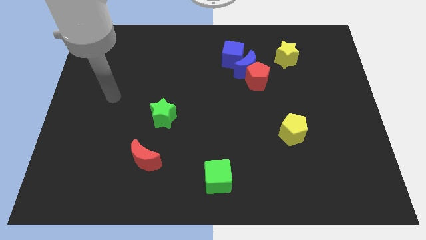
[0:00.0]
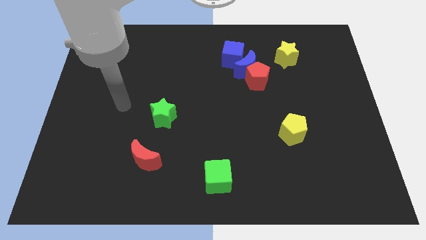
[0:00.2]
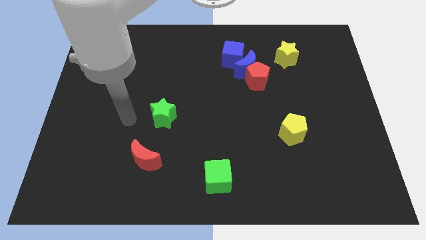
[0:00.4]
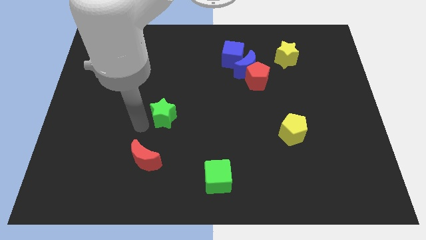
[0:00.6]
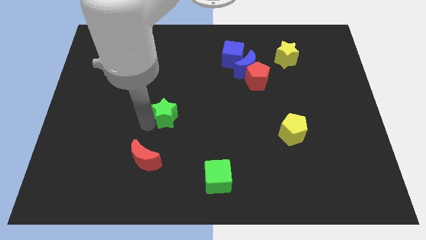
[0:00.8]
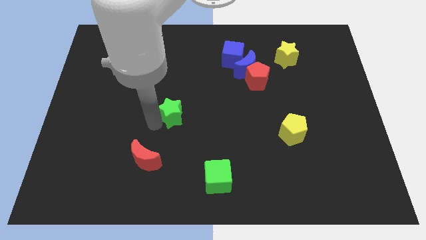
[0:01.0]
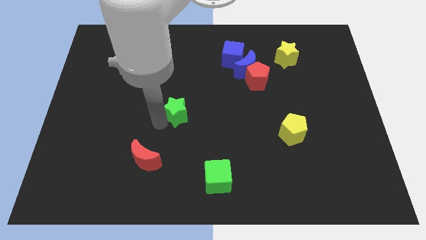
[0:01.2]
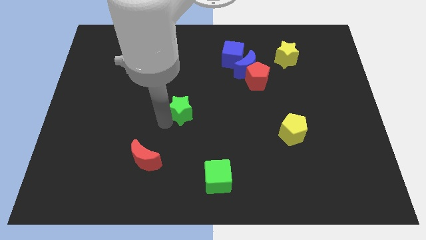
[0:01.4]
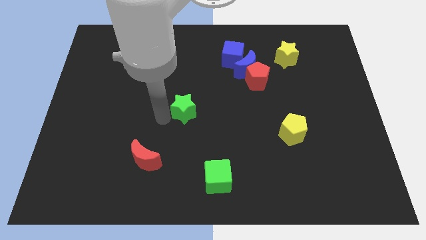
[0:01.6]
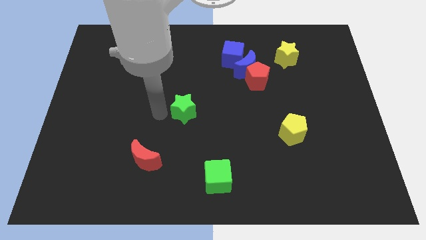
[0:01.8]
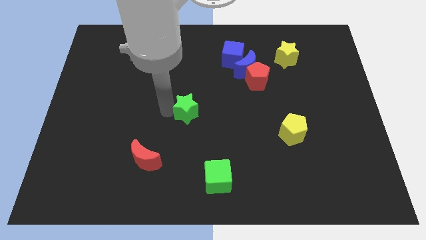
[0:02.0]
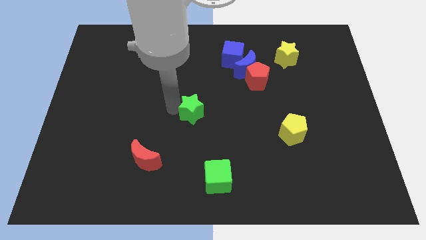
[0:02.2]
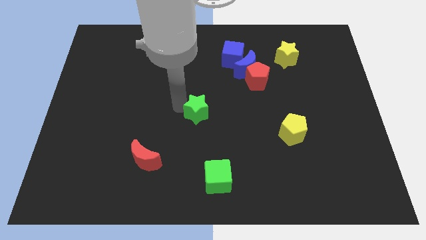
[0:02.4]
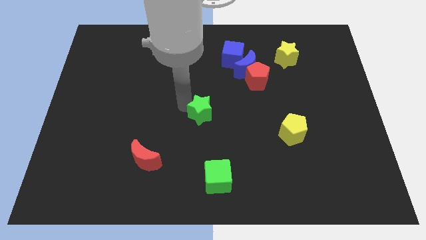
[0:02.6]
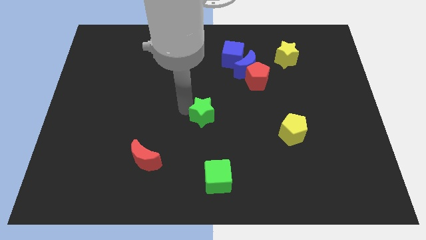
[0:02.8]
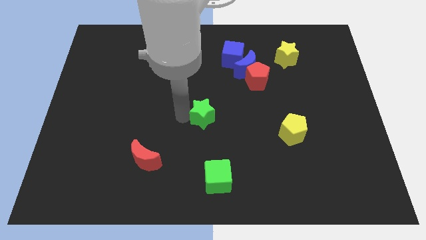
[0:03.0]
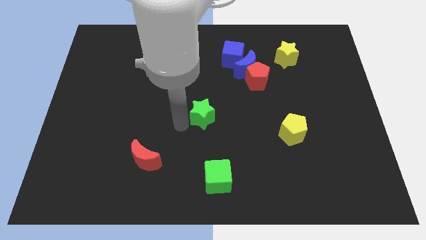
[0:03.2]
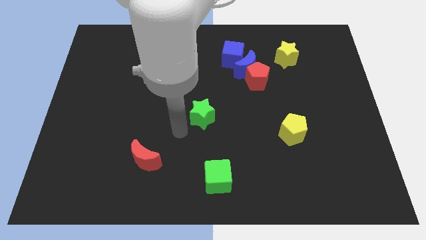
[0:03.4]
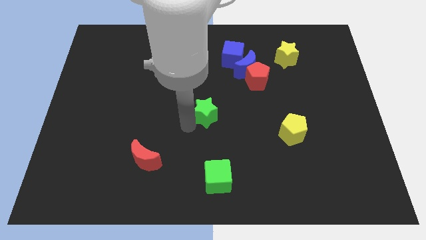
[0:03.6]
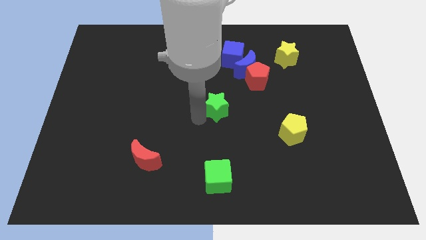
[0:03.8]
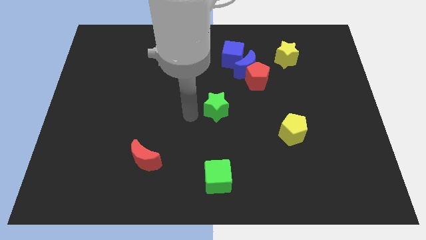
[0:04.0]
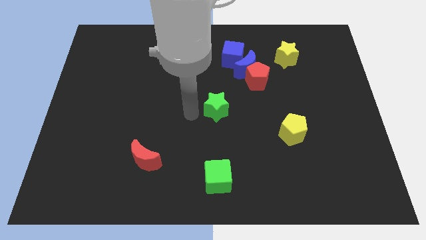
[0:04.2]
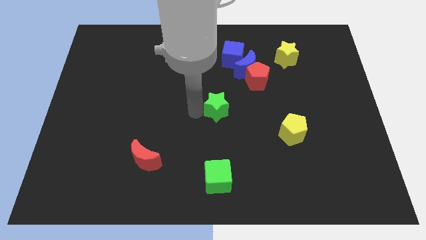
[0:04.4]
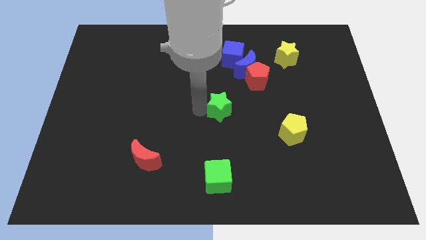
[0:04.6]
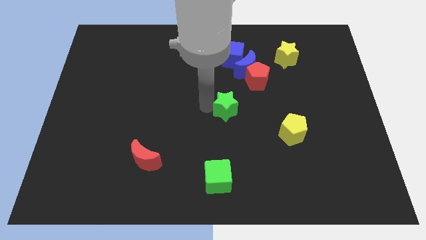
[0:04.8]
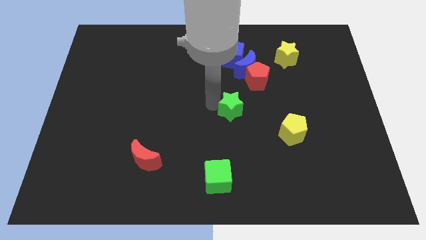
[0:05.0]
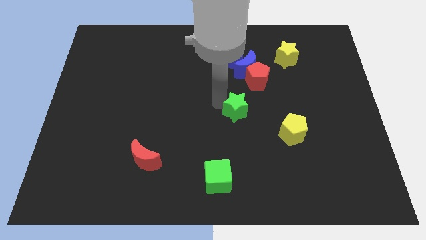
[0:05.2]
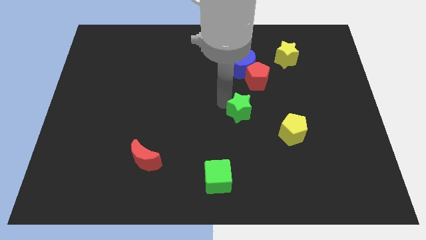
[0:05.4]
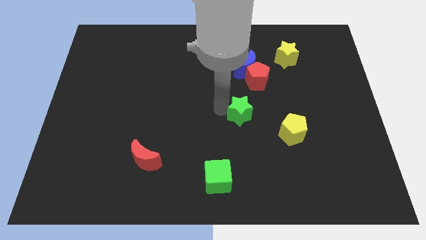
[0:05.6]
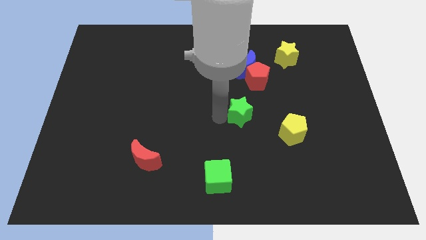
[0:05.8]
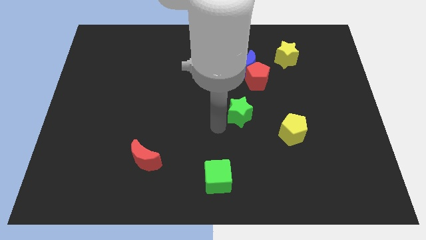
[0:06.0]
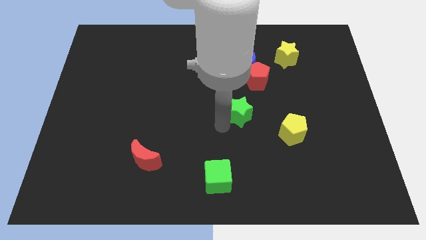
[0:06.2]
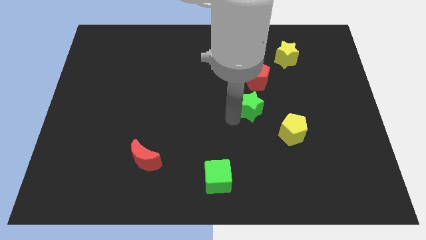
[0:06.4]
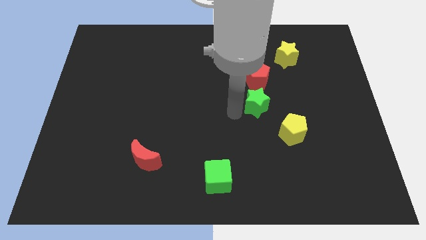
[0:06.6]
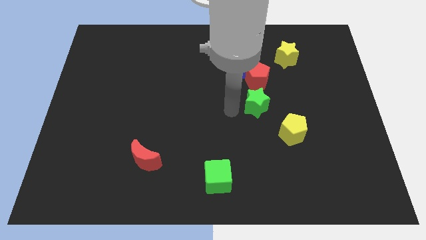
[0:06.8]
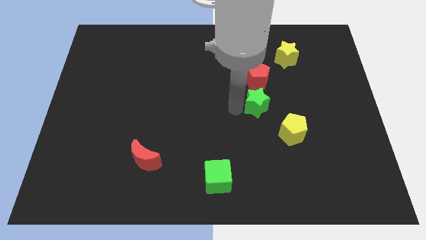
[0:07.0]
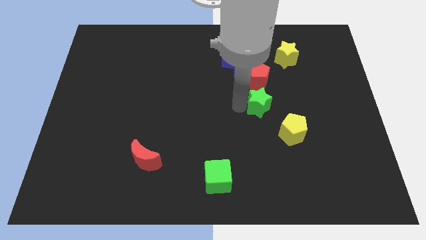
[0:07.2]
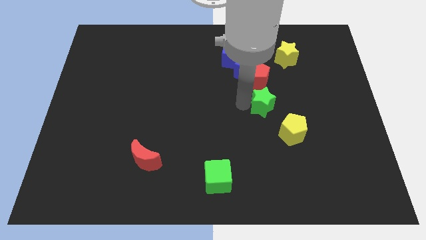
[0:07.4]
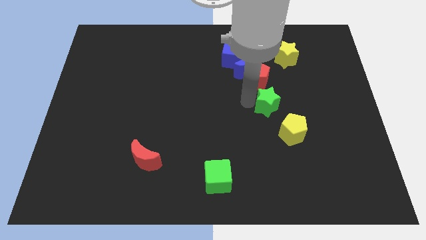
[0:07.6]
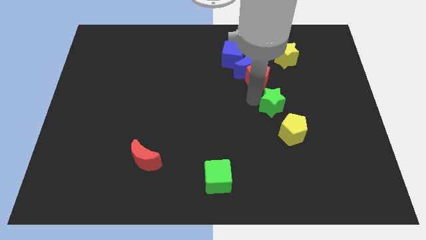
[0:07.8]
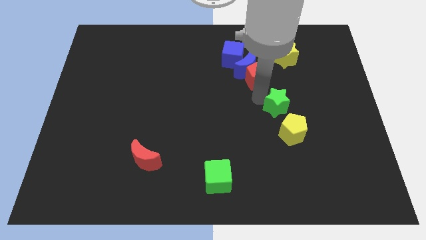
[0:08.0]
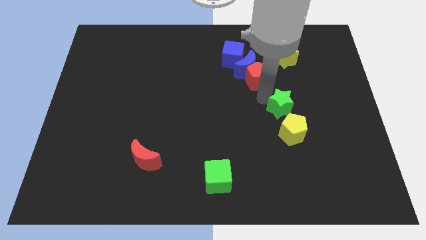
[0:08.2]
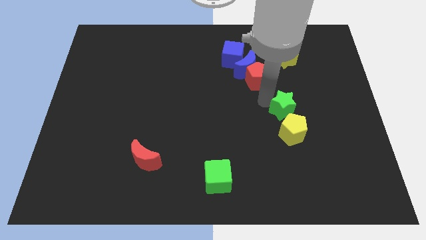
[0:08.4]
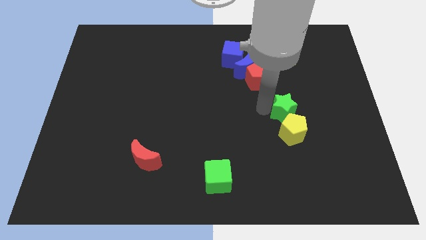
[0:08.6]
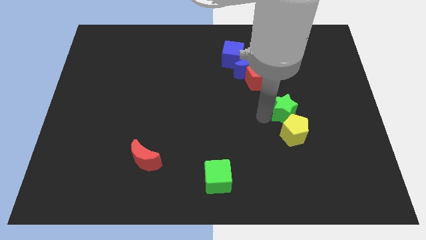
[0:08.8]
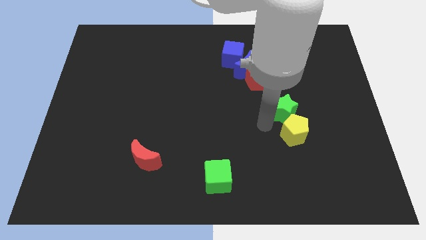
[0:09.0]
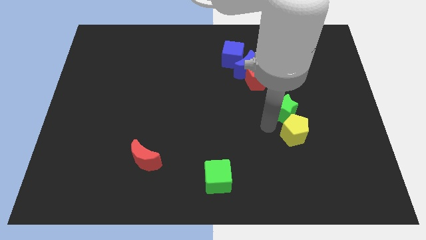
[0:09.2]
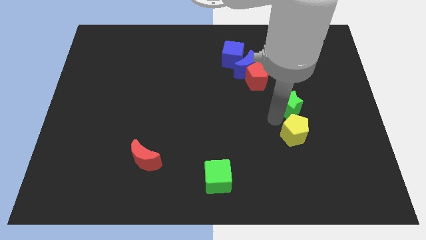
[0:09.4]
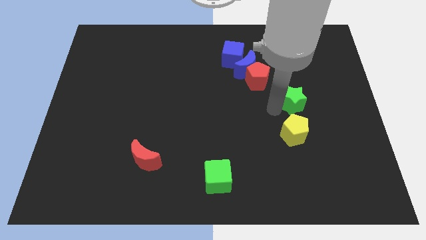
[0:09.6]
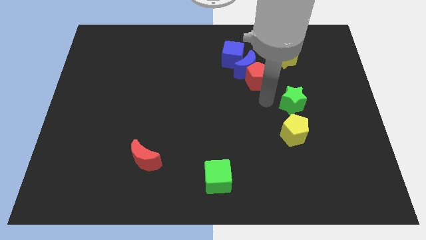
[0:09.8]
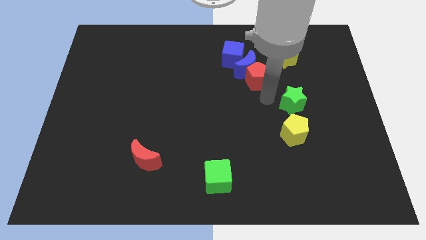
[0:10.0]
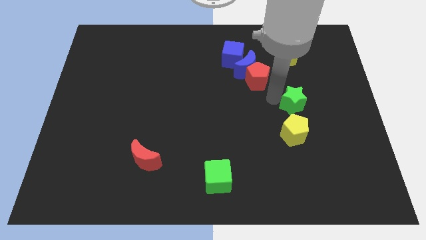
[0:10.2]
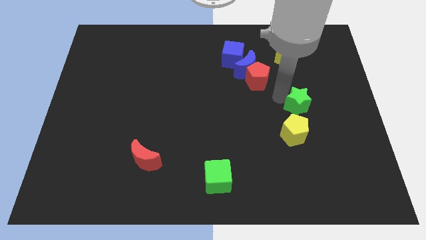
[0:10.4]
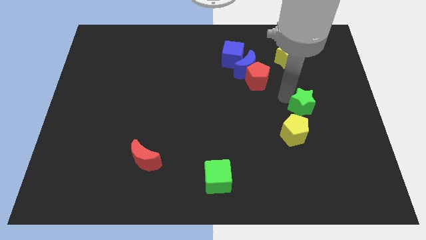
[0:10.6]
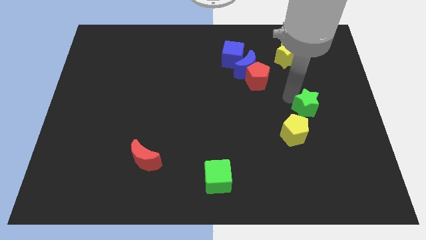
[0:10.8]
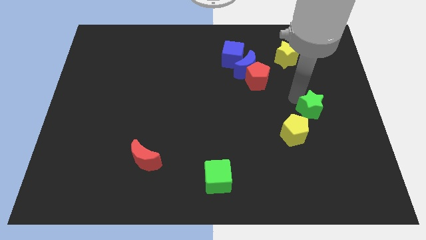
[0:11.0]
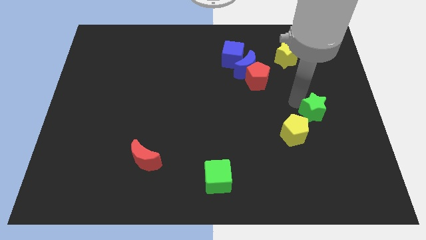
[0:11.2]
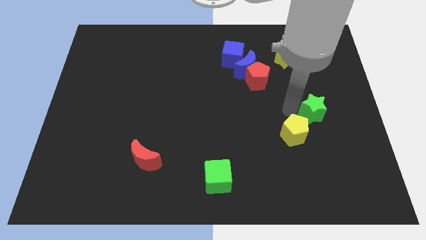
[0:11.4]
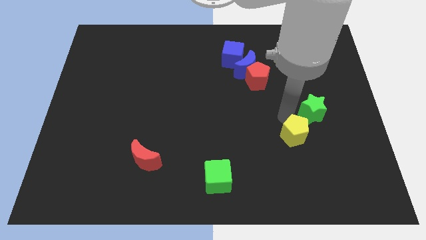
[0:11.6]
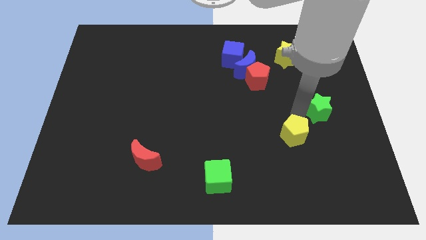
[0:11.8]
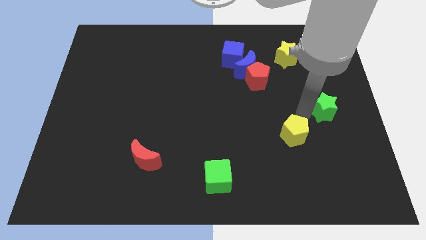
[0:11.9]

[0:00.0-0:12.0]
push the green star to the right side of the board
